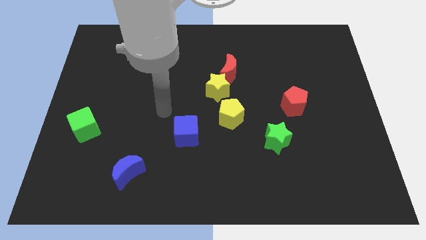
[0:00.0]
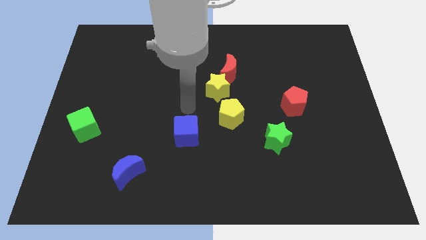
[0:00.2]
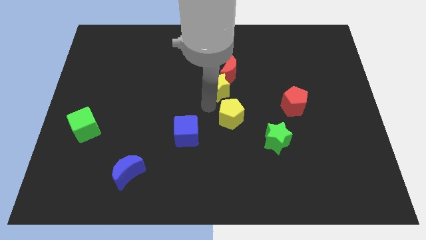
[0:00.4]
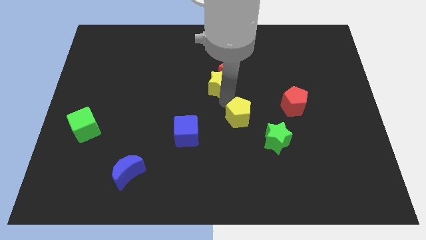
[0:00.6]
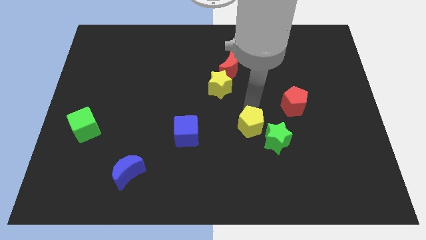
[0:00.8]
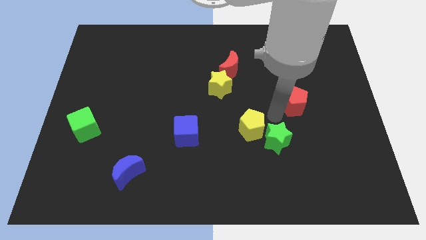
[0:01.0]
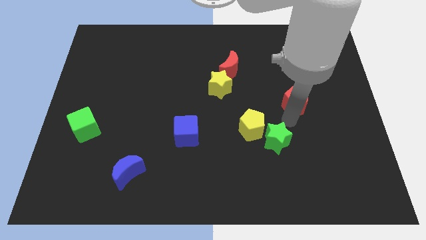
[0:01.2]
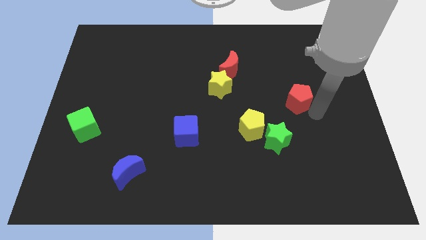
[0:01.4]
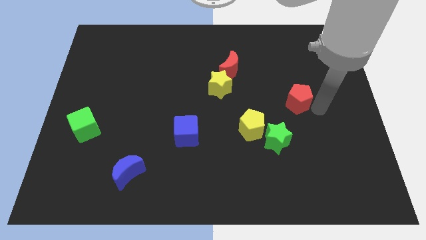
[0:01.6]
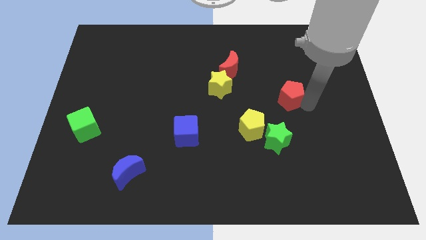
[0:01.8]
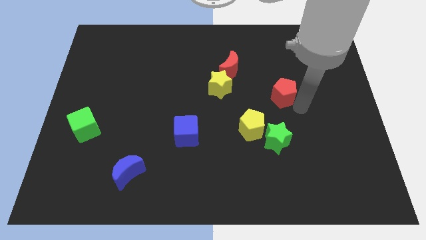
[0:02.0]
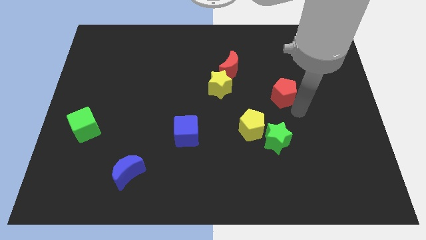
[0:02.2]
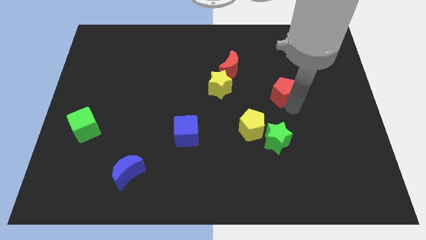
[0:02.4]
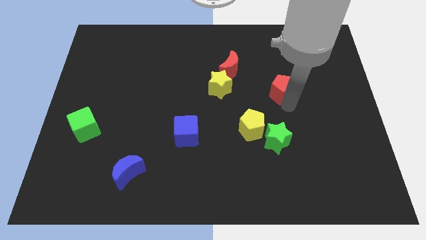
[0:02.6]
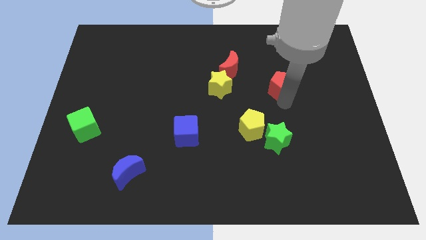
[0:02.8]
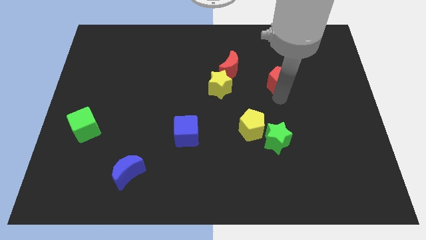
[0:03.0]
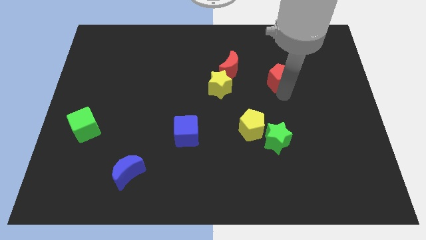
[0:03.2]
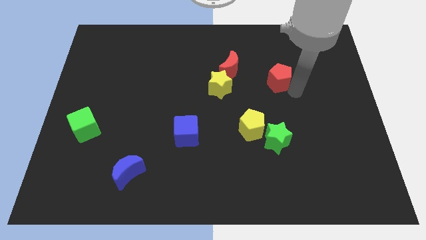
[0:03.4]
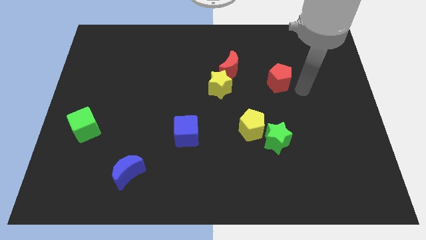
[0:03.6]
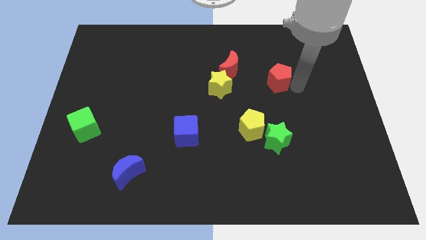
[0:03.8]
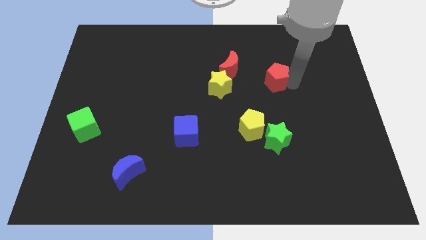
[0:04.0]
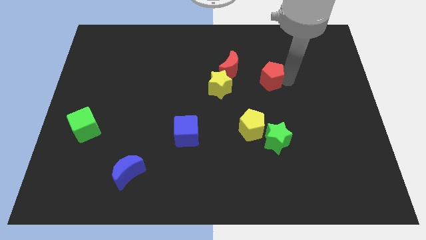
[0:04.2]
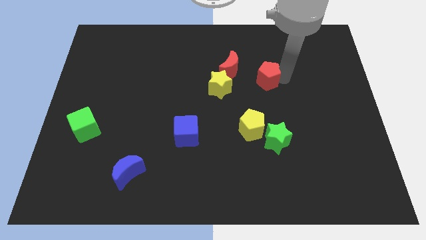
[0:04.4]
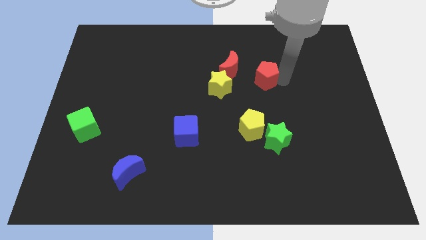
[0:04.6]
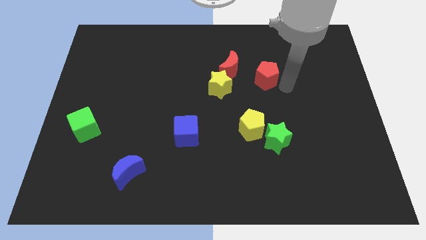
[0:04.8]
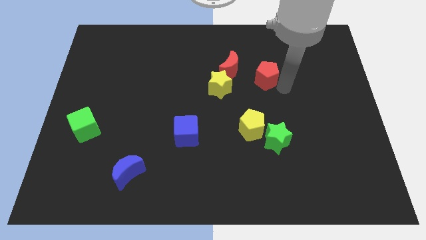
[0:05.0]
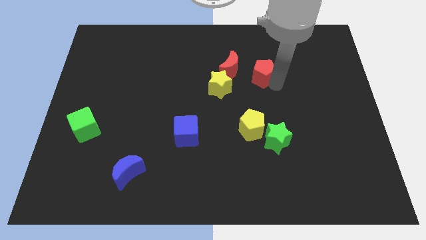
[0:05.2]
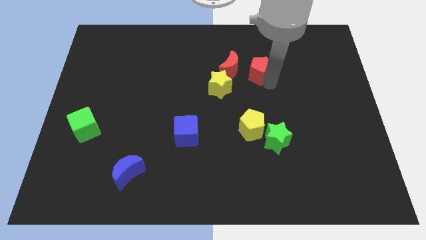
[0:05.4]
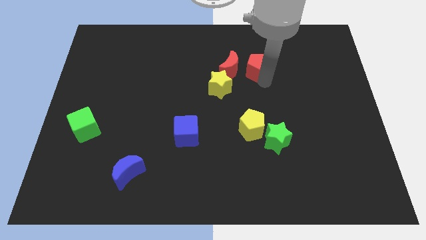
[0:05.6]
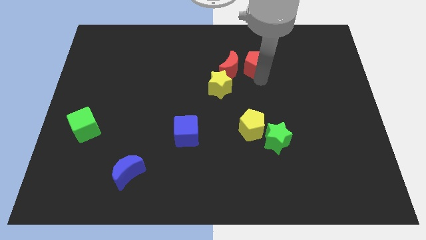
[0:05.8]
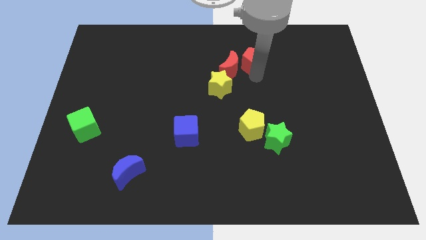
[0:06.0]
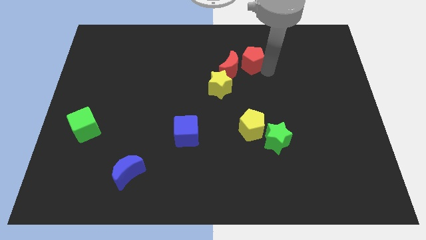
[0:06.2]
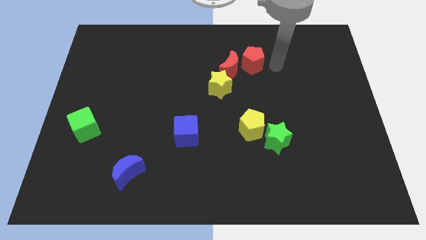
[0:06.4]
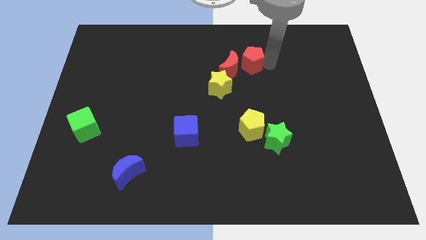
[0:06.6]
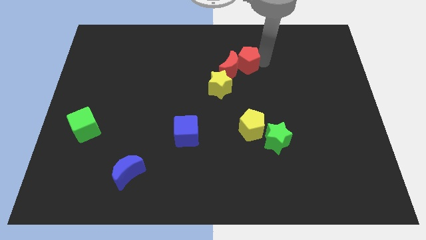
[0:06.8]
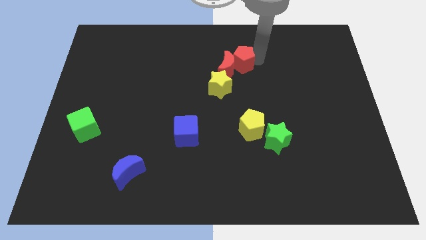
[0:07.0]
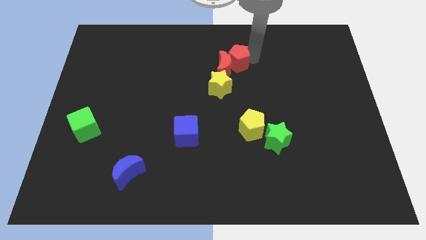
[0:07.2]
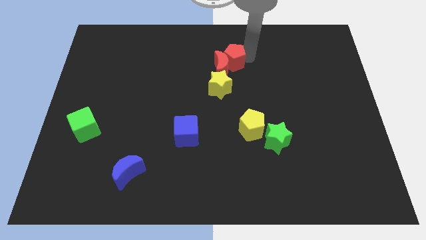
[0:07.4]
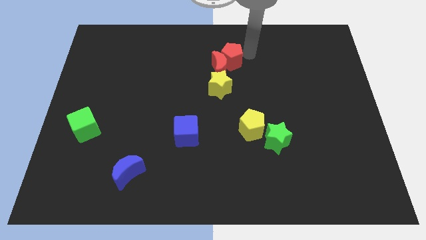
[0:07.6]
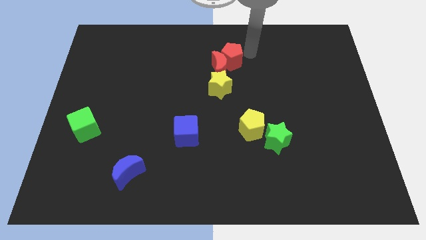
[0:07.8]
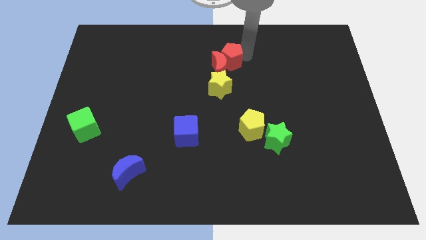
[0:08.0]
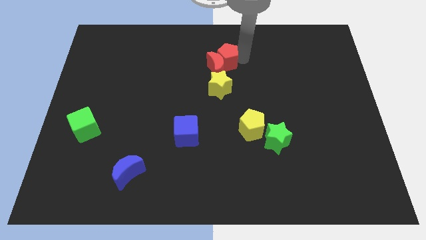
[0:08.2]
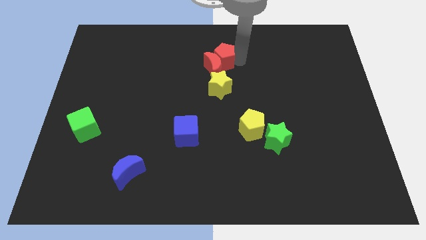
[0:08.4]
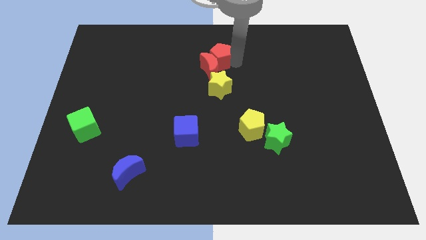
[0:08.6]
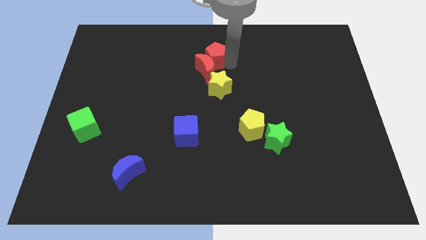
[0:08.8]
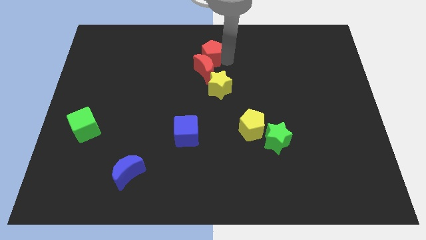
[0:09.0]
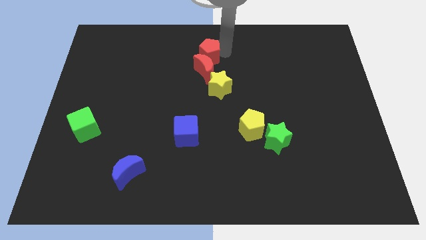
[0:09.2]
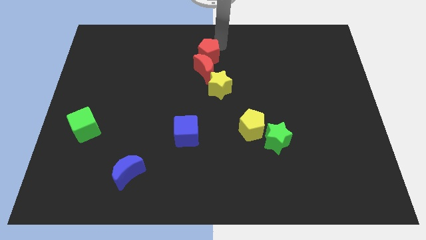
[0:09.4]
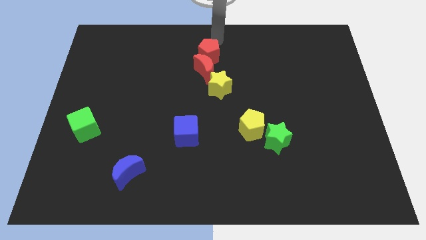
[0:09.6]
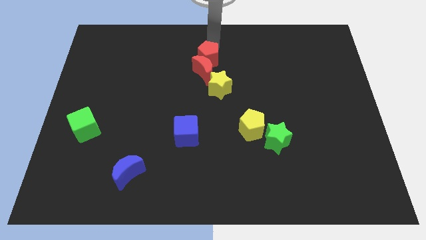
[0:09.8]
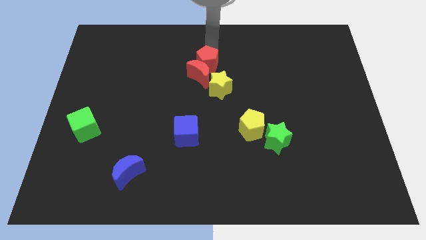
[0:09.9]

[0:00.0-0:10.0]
push the red pentagon to the top left side of the yellow star

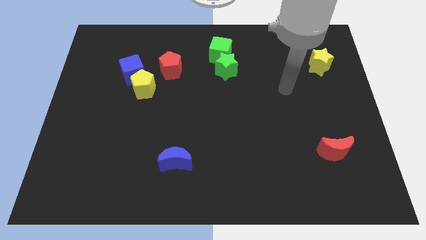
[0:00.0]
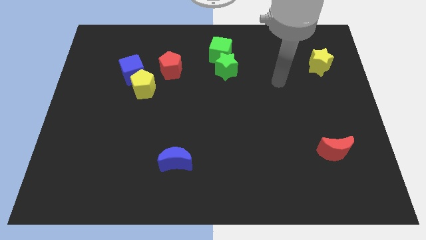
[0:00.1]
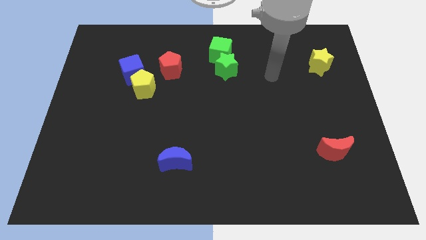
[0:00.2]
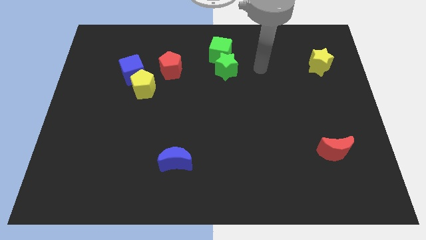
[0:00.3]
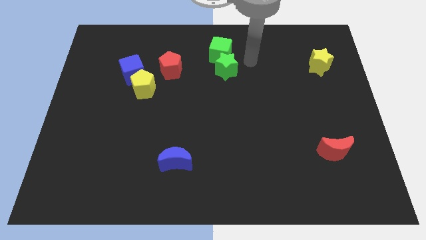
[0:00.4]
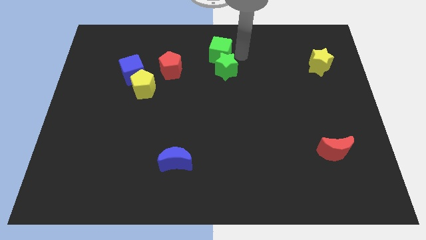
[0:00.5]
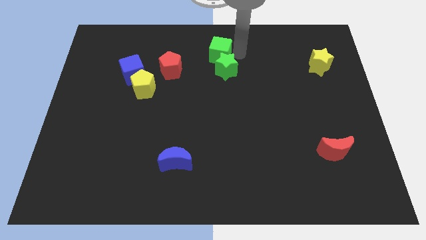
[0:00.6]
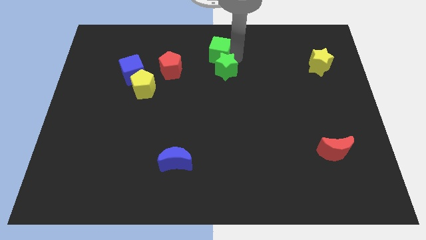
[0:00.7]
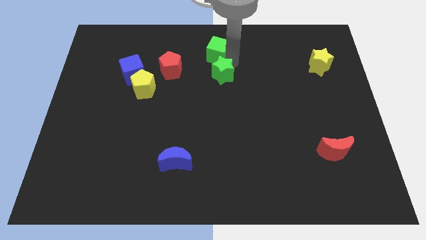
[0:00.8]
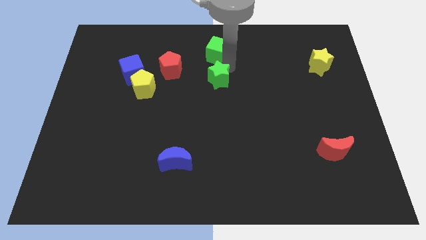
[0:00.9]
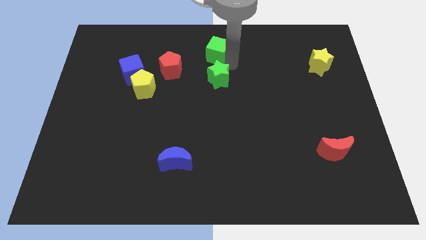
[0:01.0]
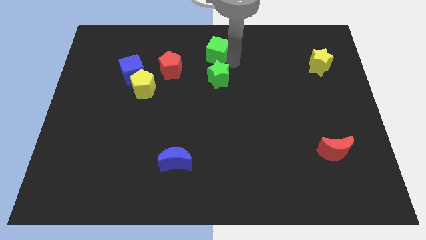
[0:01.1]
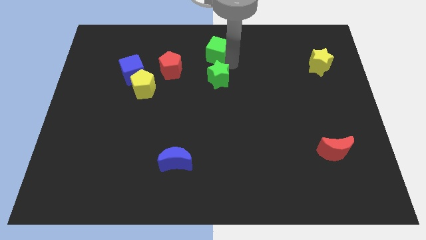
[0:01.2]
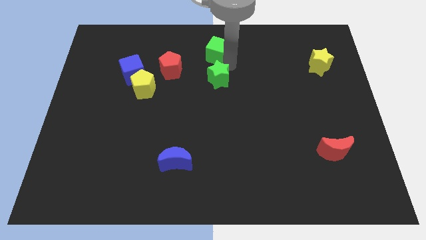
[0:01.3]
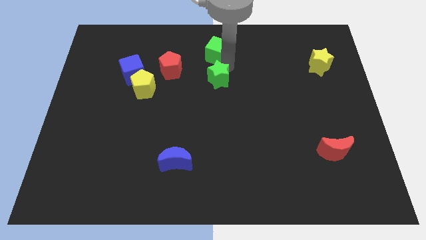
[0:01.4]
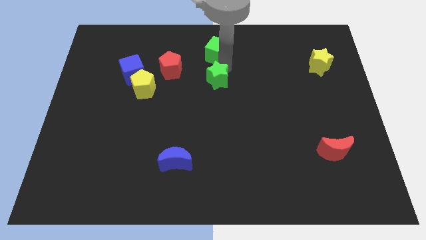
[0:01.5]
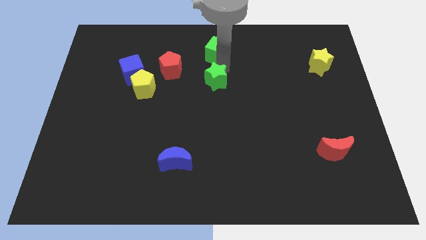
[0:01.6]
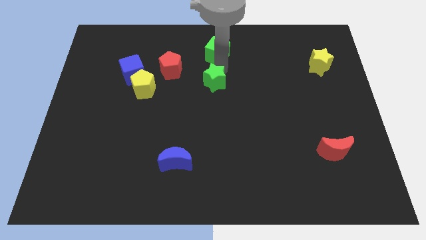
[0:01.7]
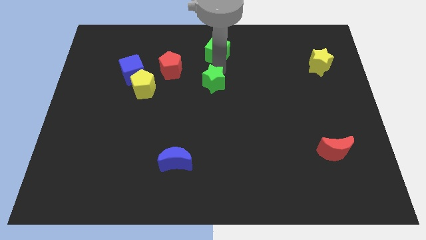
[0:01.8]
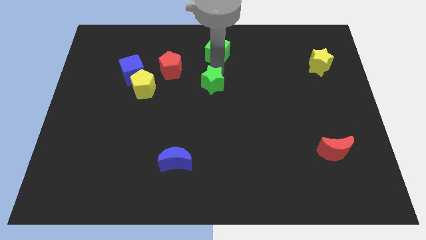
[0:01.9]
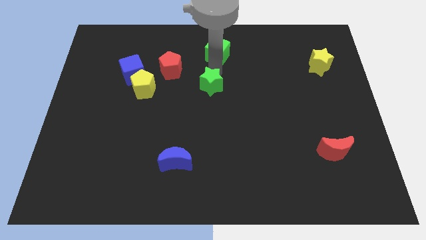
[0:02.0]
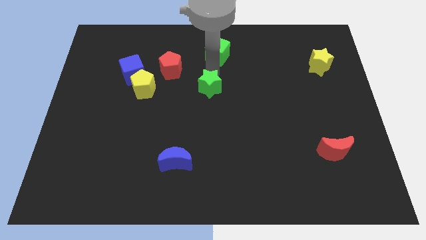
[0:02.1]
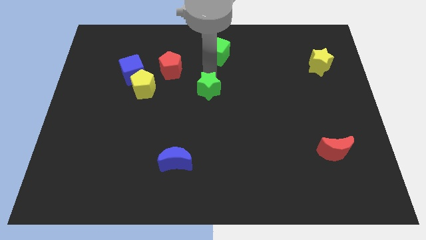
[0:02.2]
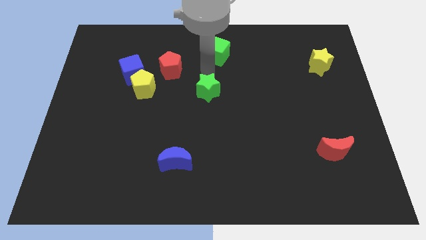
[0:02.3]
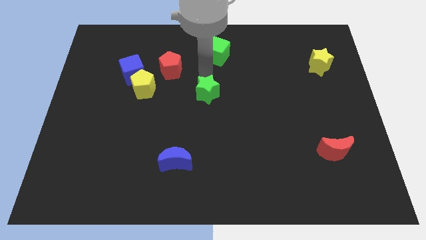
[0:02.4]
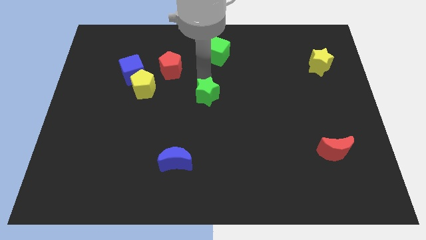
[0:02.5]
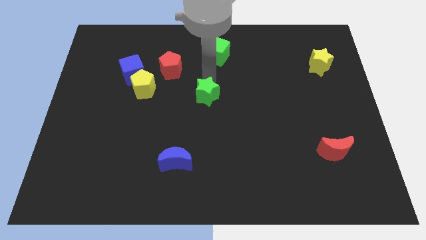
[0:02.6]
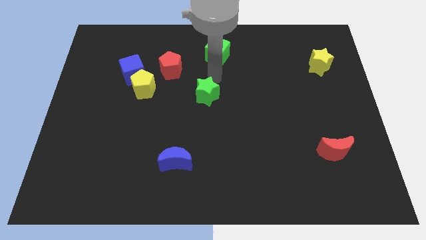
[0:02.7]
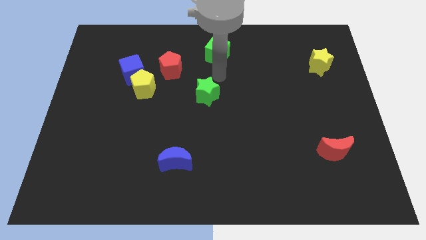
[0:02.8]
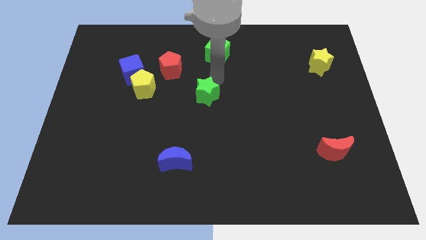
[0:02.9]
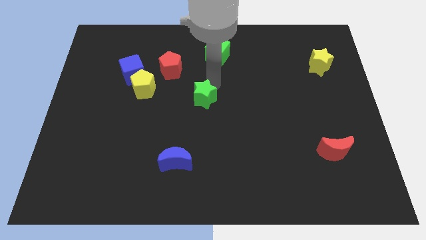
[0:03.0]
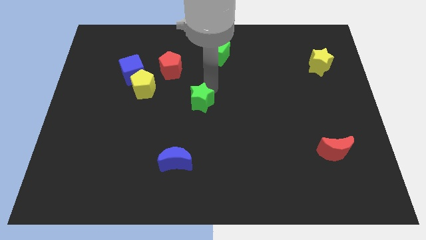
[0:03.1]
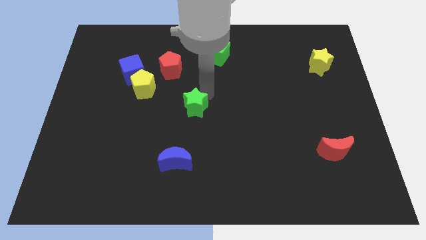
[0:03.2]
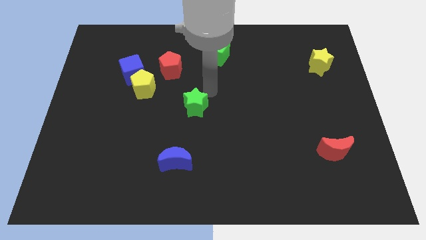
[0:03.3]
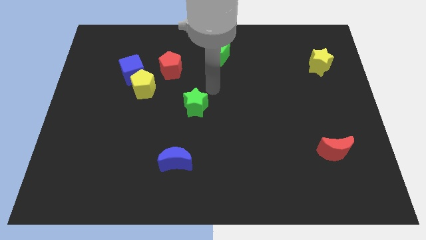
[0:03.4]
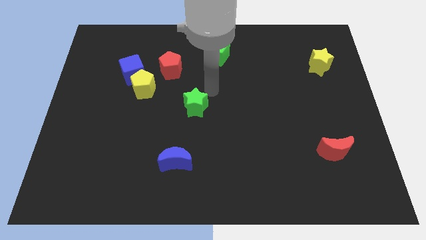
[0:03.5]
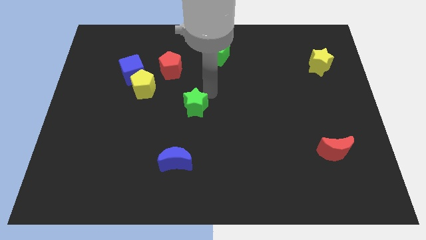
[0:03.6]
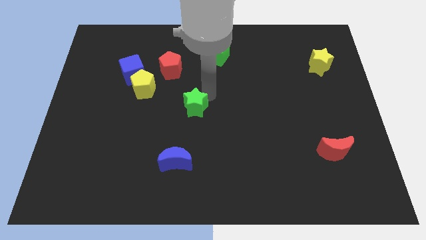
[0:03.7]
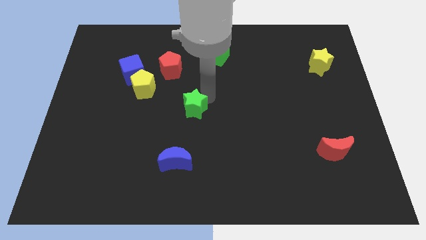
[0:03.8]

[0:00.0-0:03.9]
push the green star to the top of the blue moon
